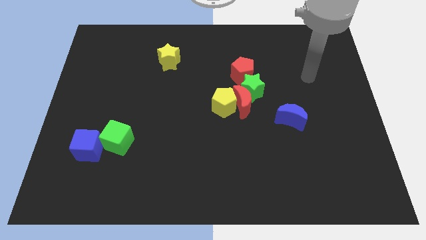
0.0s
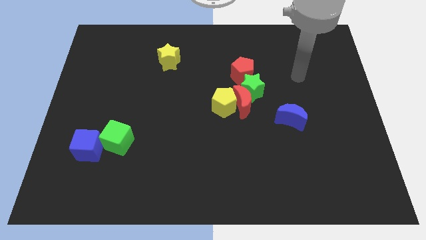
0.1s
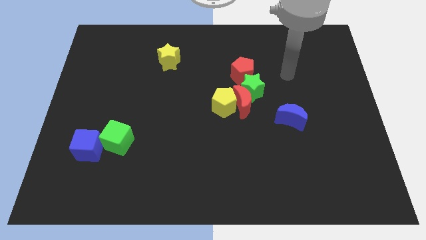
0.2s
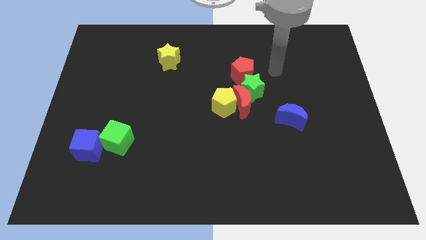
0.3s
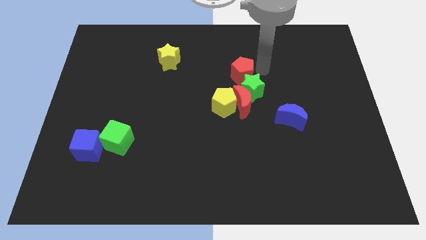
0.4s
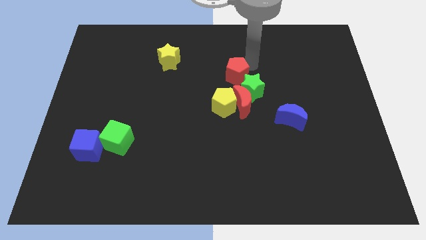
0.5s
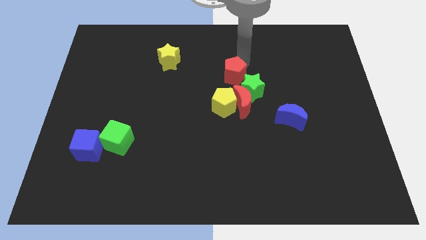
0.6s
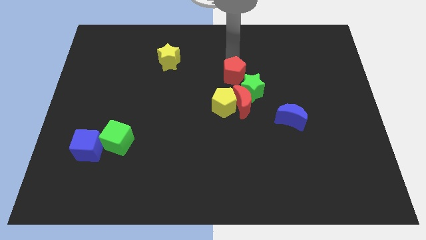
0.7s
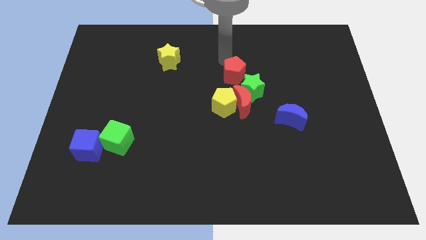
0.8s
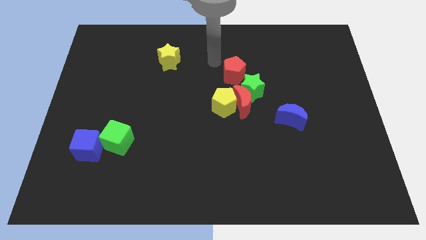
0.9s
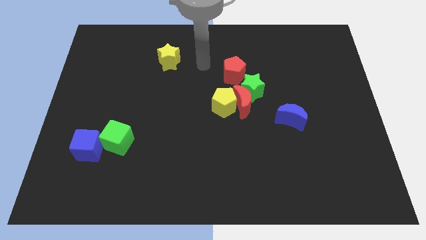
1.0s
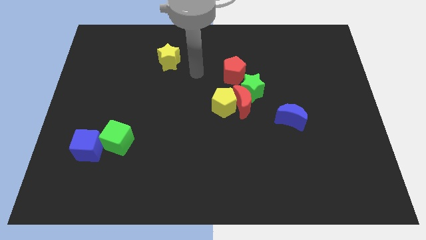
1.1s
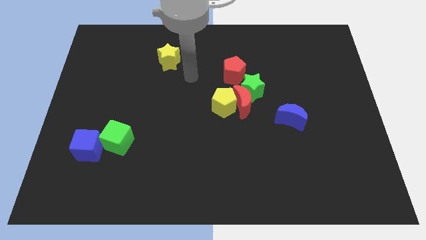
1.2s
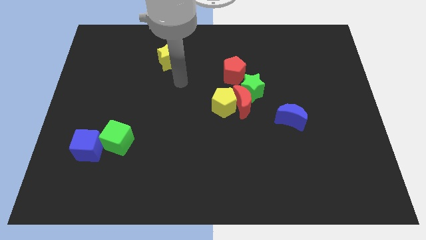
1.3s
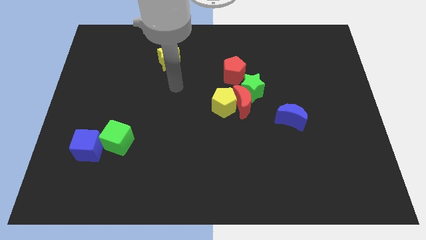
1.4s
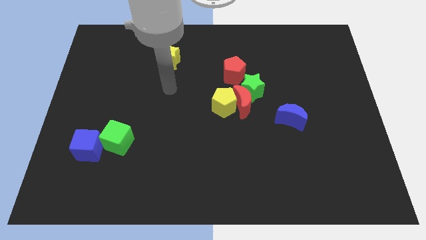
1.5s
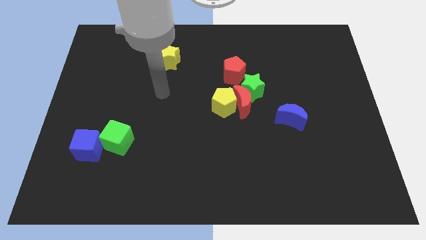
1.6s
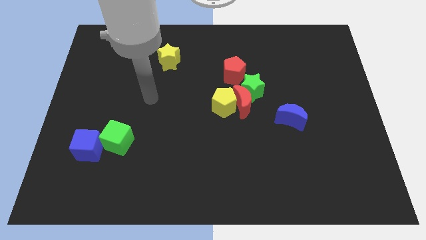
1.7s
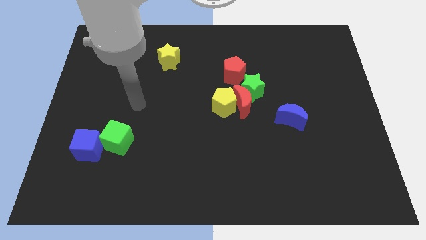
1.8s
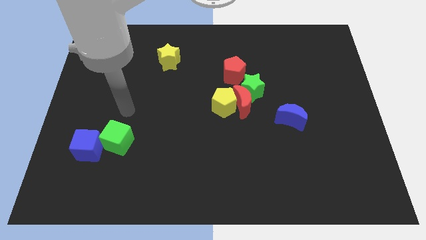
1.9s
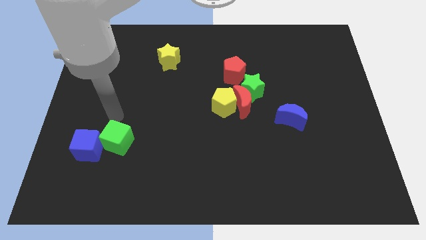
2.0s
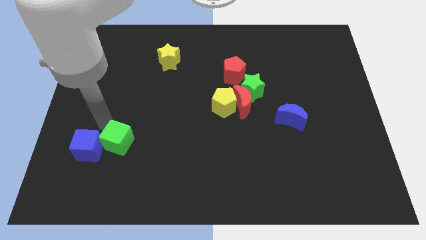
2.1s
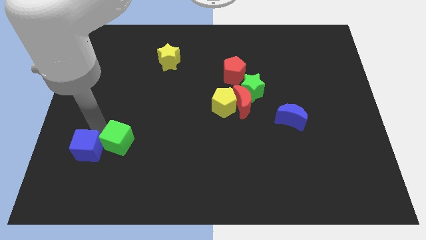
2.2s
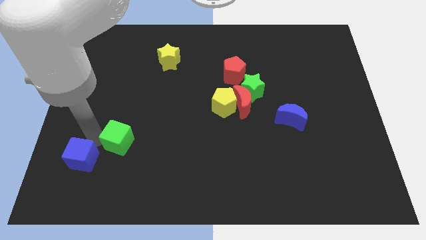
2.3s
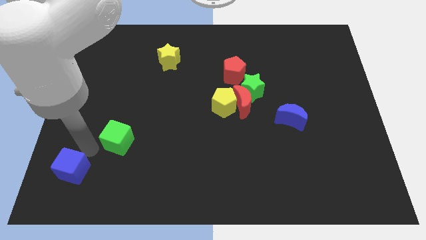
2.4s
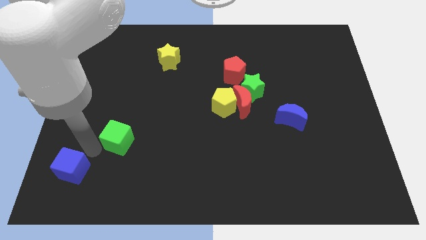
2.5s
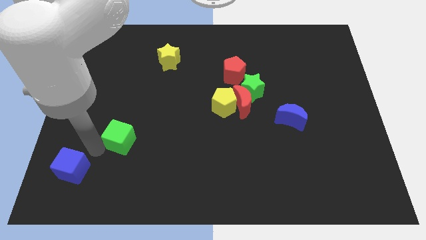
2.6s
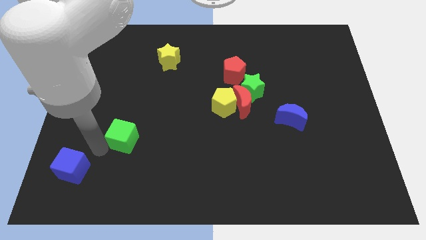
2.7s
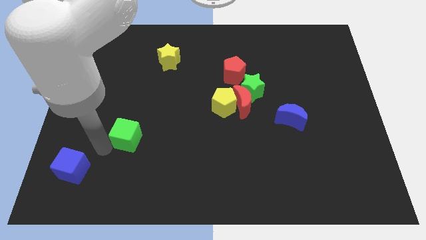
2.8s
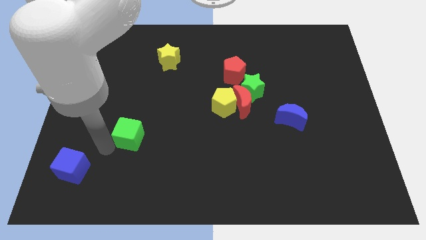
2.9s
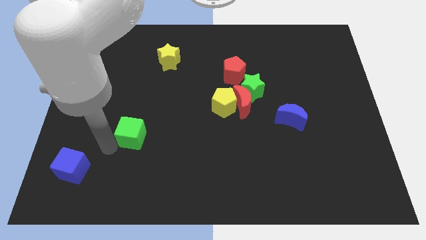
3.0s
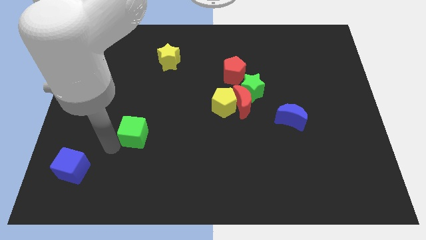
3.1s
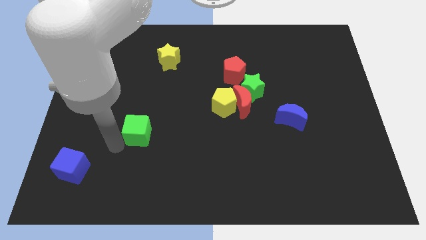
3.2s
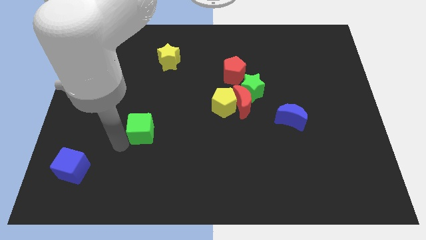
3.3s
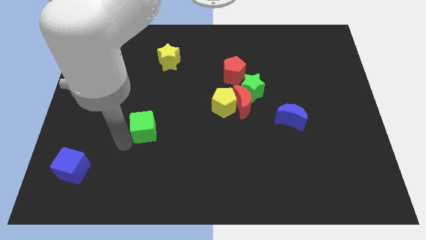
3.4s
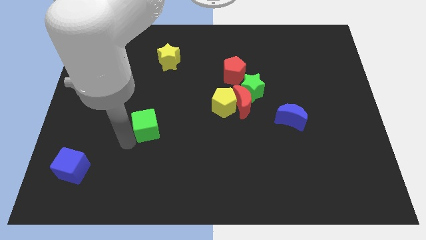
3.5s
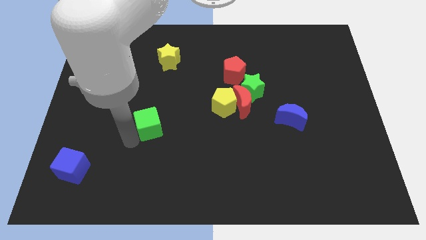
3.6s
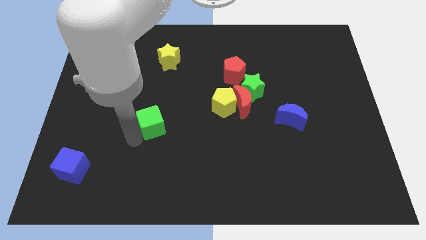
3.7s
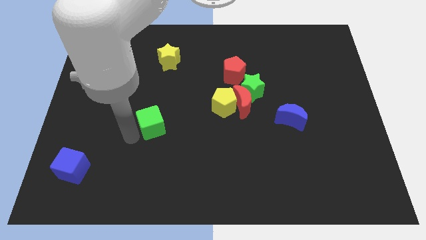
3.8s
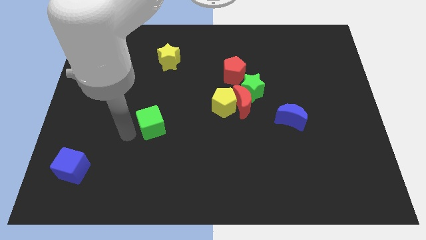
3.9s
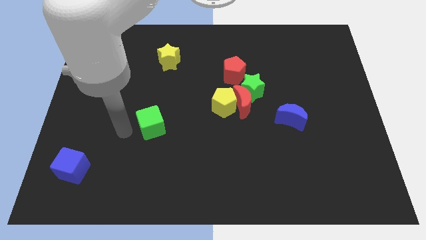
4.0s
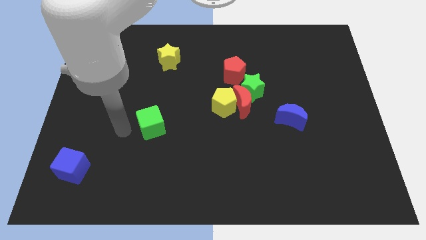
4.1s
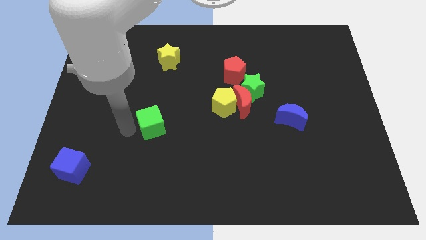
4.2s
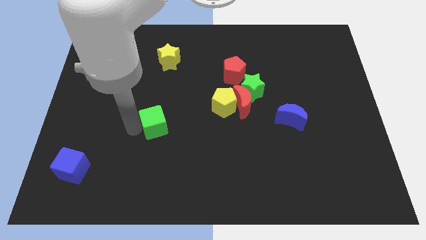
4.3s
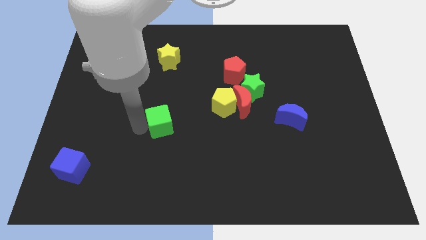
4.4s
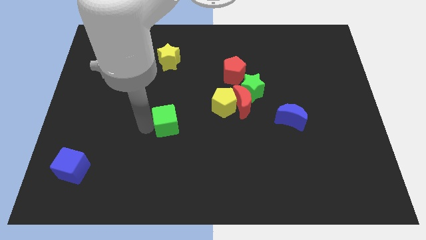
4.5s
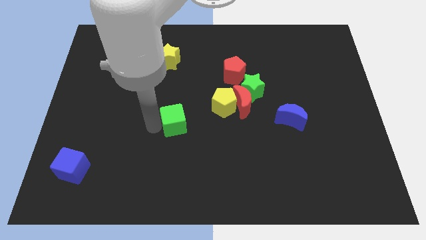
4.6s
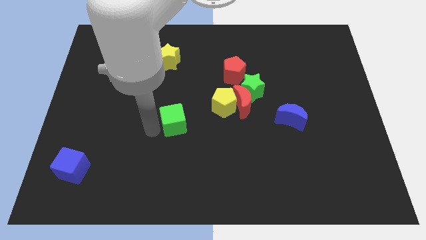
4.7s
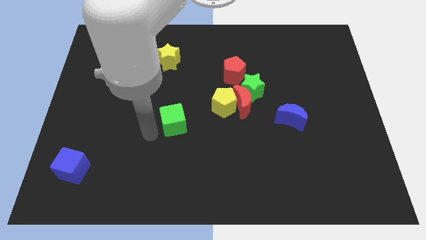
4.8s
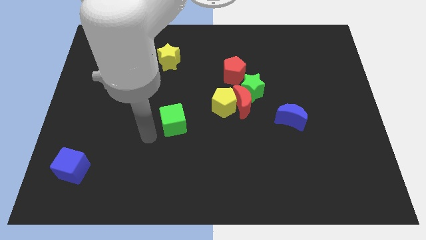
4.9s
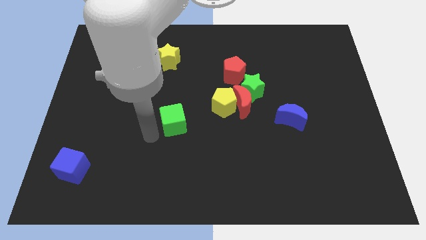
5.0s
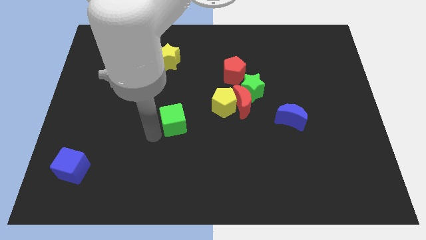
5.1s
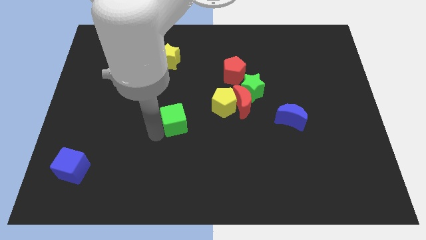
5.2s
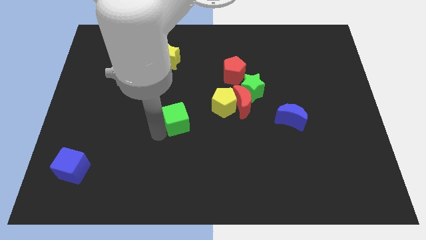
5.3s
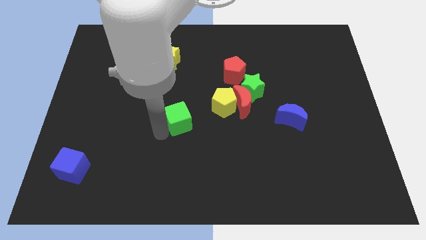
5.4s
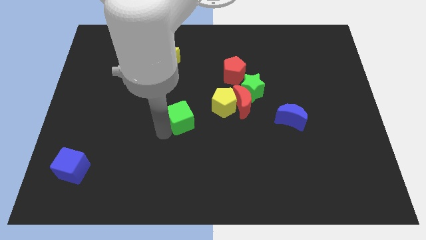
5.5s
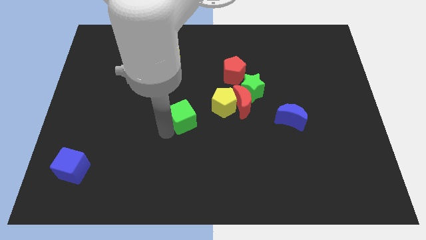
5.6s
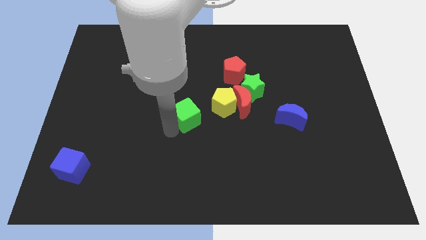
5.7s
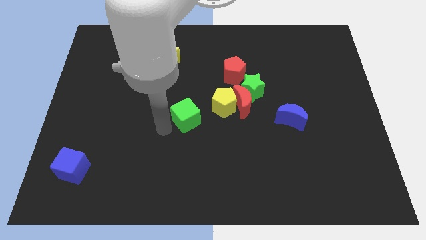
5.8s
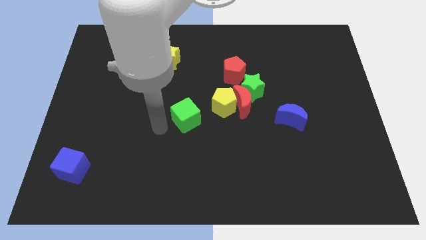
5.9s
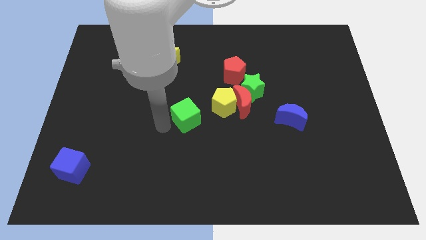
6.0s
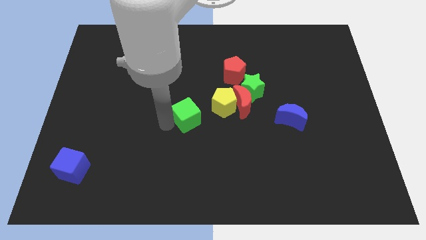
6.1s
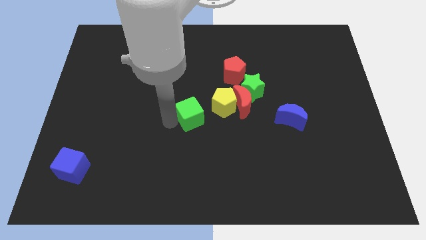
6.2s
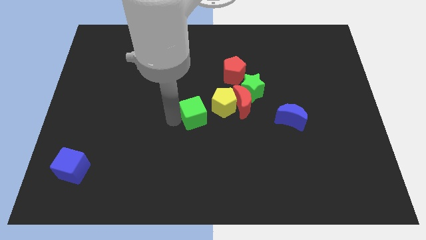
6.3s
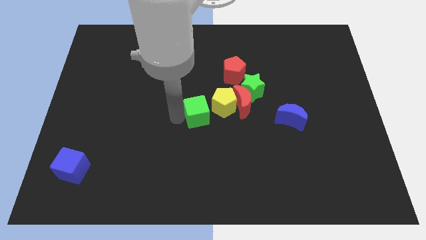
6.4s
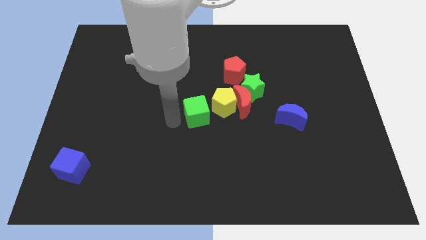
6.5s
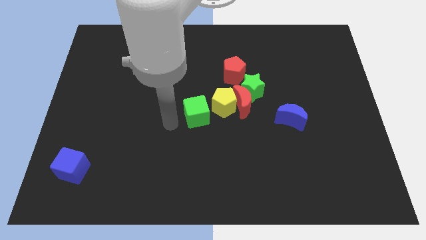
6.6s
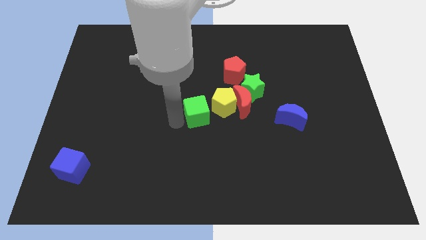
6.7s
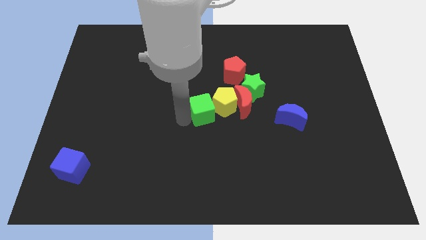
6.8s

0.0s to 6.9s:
slide the green cube close to the yellow pentagon

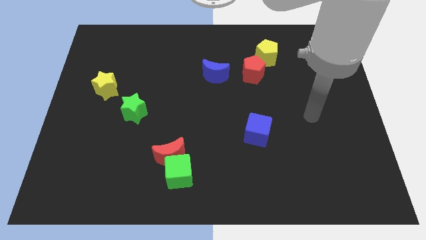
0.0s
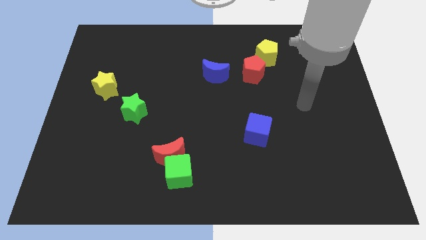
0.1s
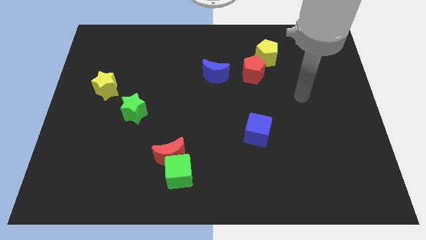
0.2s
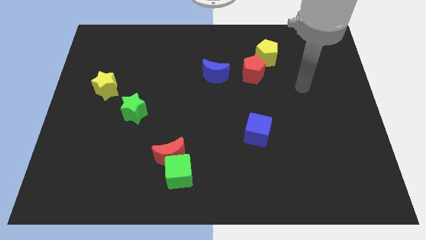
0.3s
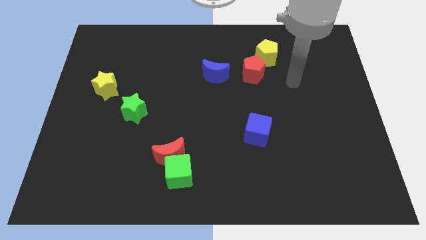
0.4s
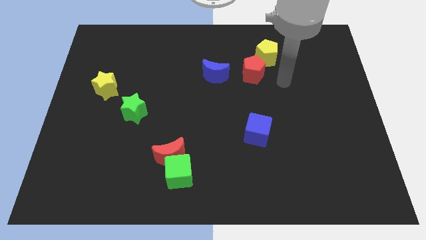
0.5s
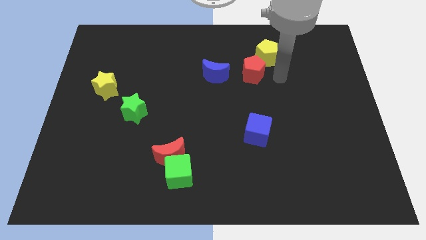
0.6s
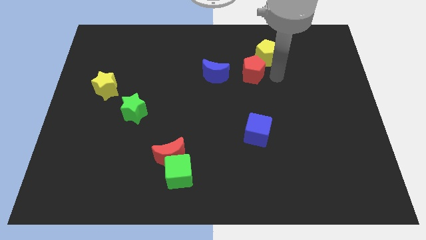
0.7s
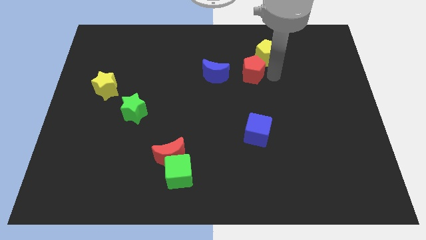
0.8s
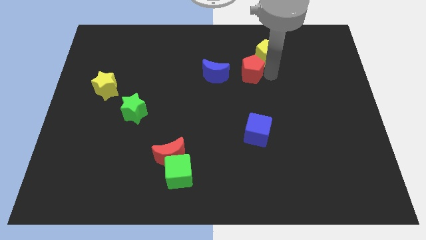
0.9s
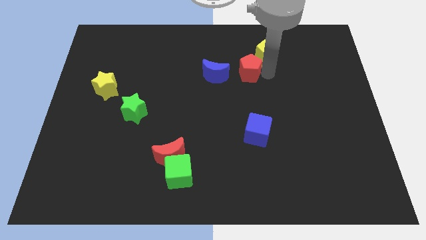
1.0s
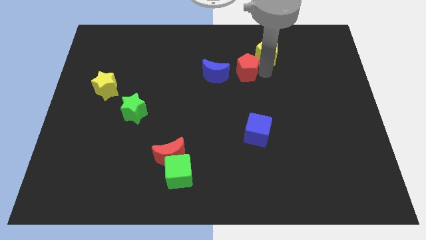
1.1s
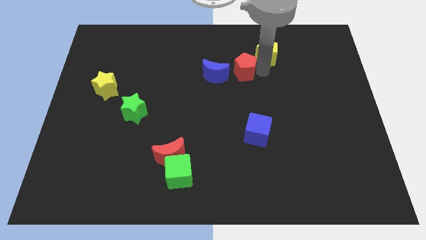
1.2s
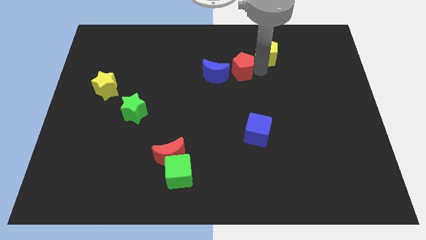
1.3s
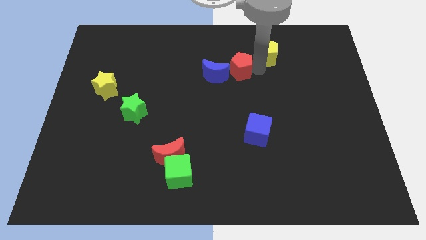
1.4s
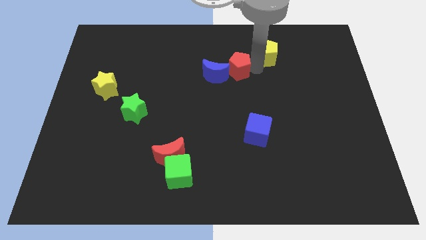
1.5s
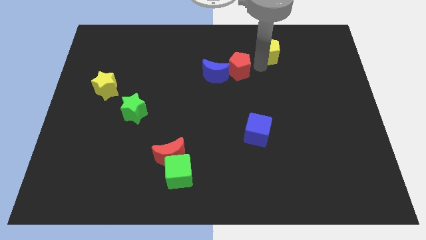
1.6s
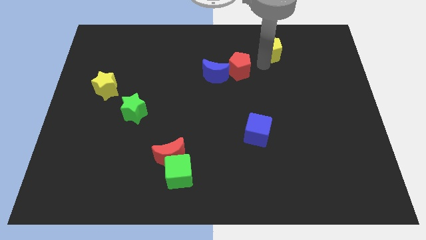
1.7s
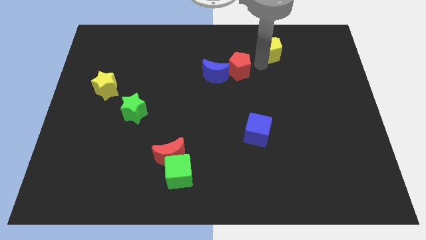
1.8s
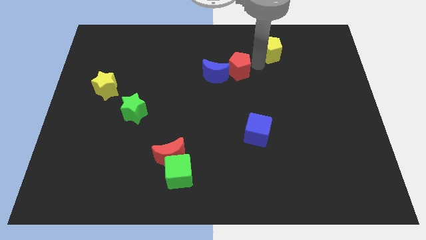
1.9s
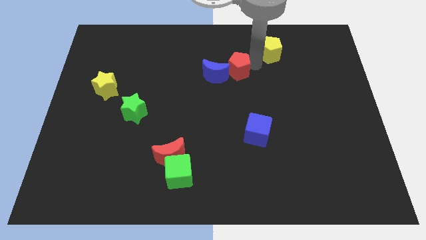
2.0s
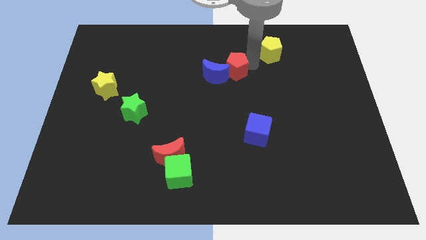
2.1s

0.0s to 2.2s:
move the red pentagon to the blue moon
